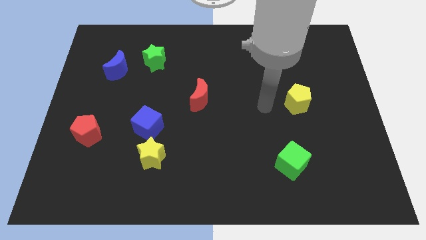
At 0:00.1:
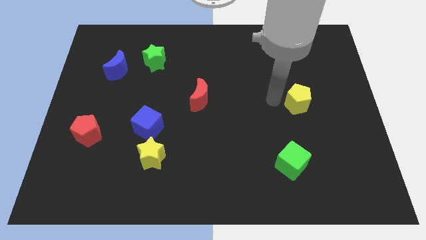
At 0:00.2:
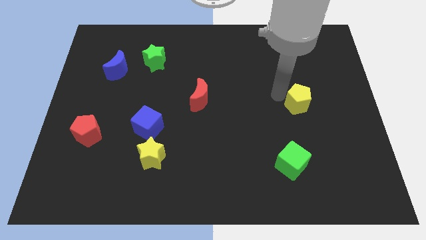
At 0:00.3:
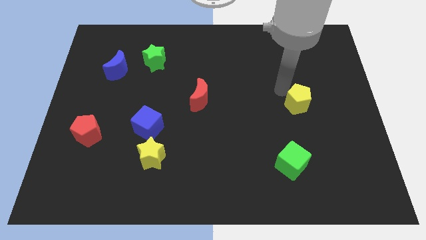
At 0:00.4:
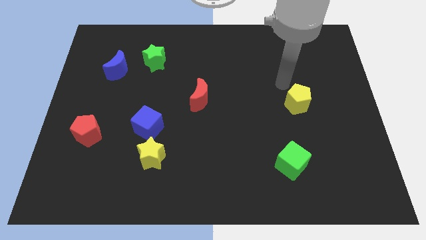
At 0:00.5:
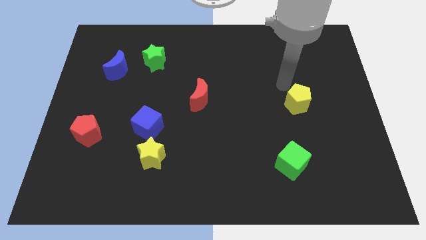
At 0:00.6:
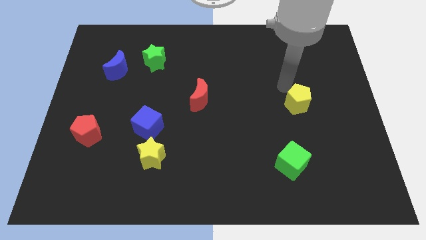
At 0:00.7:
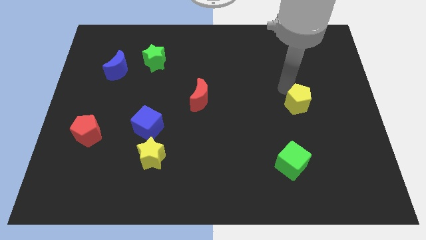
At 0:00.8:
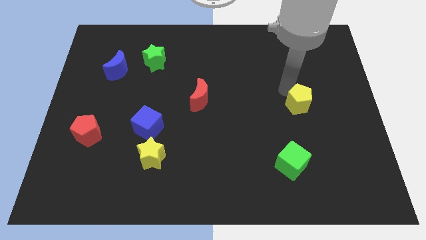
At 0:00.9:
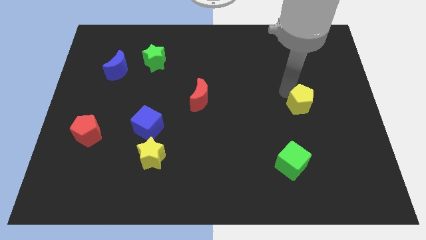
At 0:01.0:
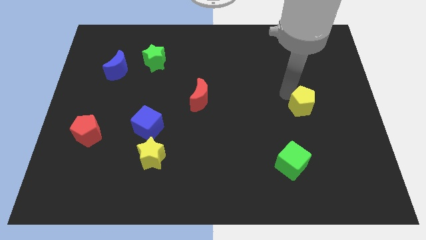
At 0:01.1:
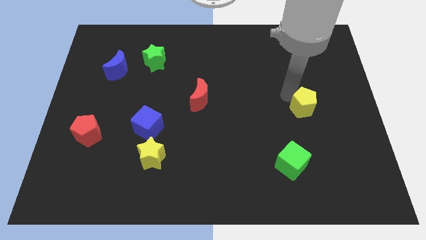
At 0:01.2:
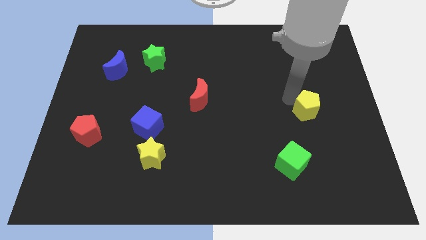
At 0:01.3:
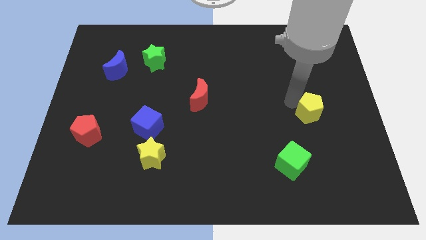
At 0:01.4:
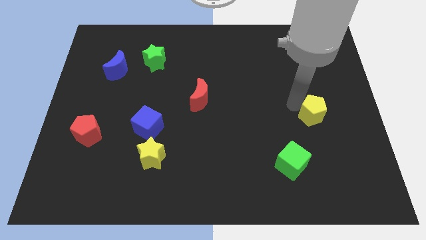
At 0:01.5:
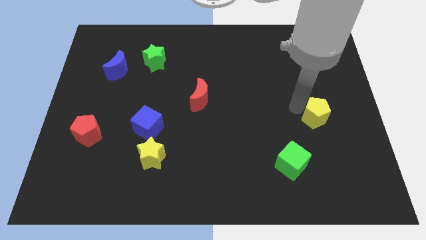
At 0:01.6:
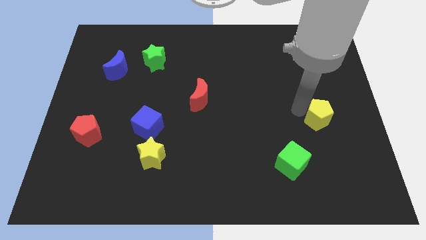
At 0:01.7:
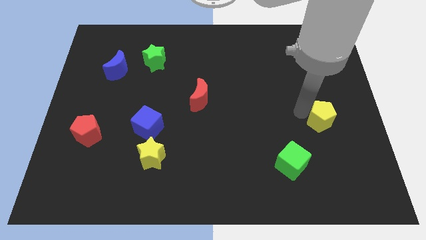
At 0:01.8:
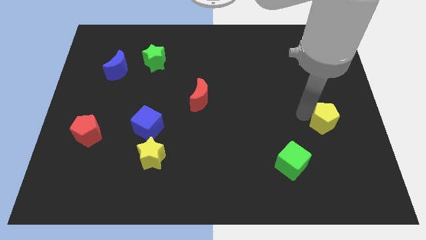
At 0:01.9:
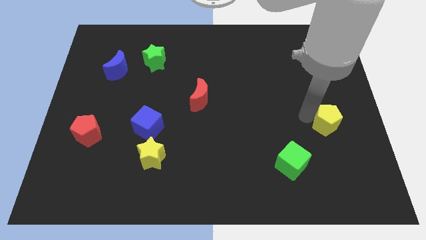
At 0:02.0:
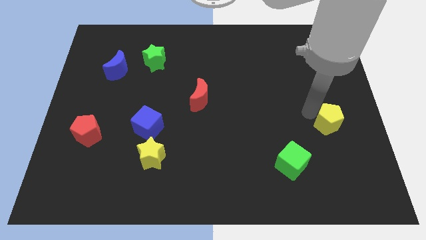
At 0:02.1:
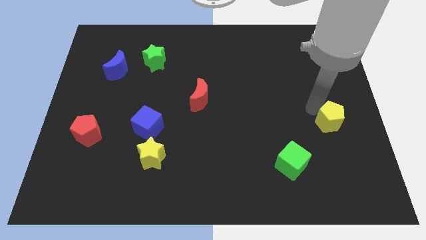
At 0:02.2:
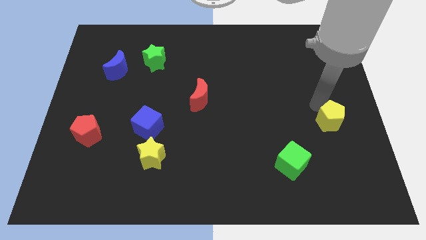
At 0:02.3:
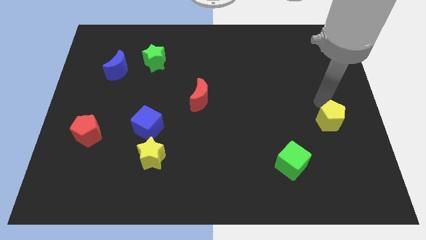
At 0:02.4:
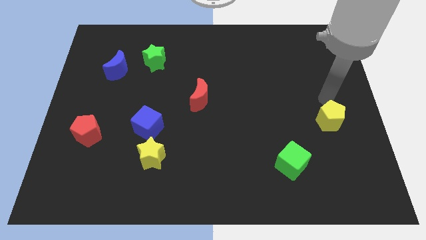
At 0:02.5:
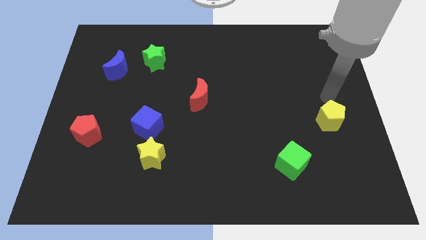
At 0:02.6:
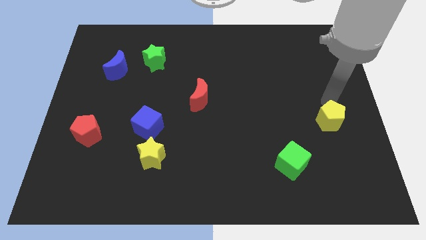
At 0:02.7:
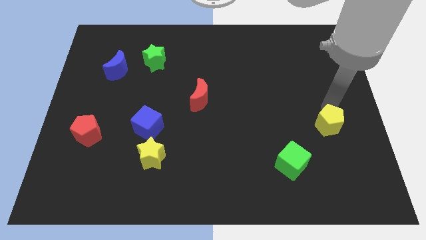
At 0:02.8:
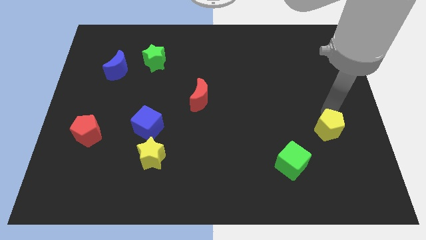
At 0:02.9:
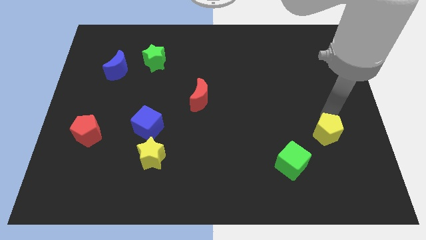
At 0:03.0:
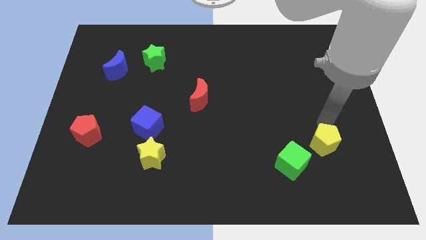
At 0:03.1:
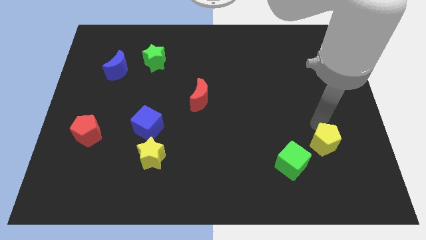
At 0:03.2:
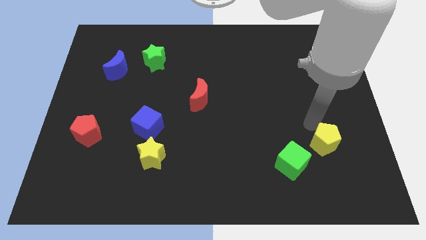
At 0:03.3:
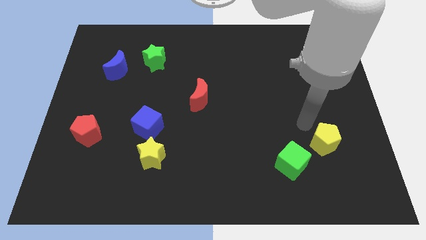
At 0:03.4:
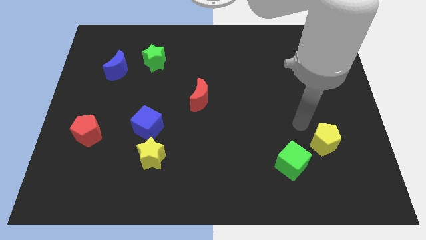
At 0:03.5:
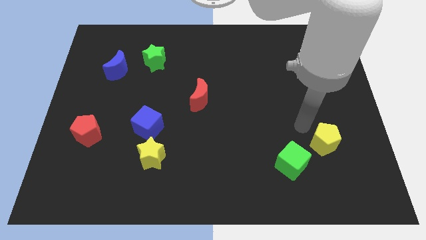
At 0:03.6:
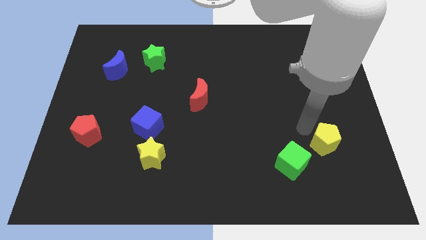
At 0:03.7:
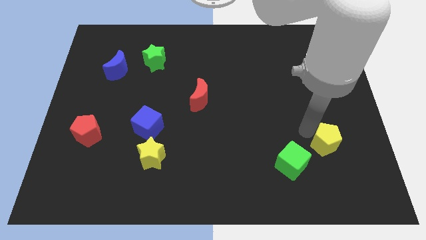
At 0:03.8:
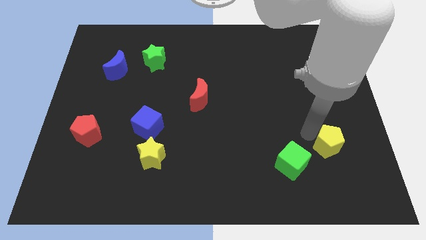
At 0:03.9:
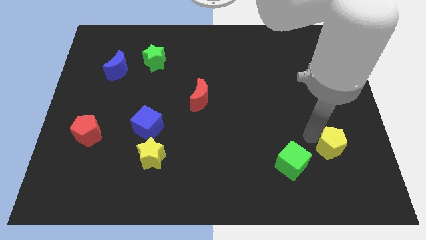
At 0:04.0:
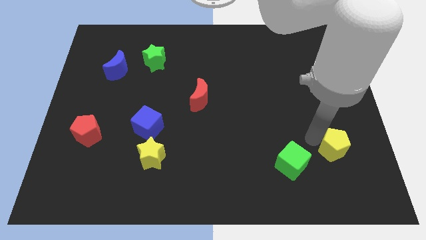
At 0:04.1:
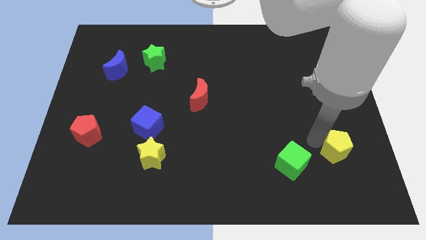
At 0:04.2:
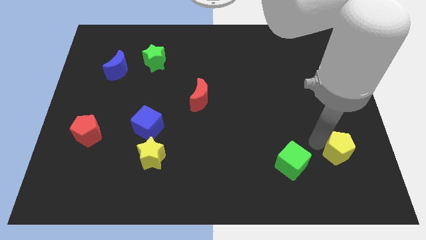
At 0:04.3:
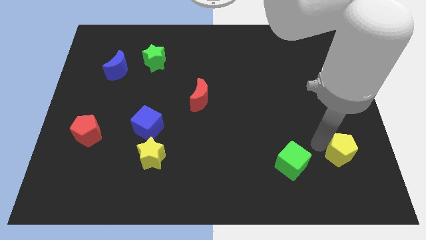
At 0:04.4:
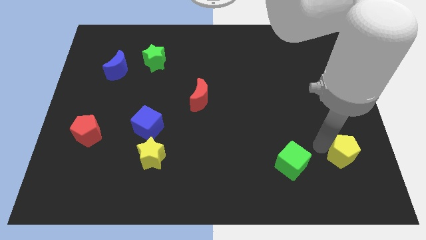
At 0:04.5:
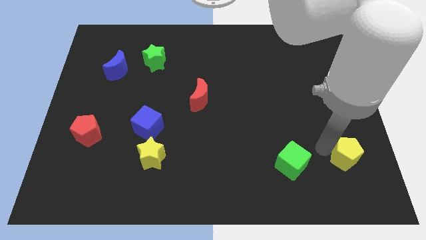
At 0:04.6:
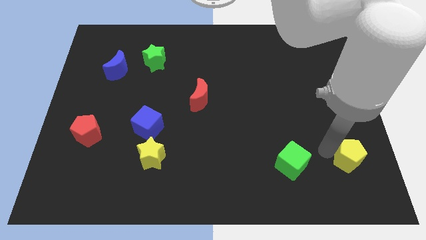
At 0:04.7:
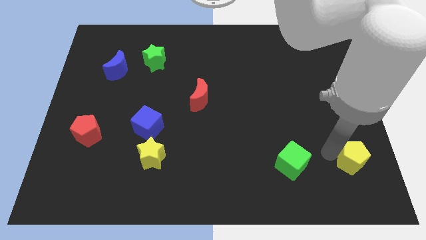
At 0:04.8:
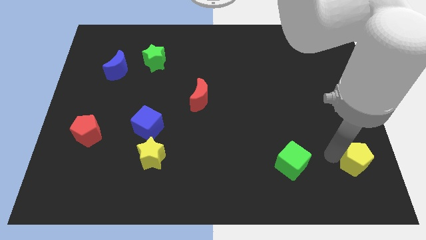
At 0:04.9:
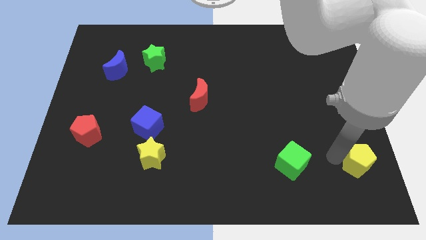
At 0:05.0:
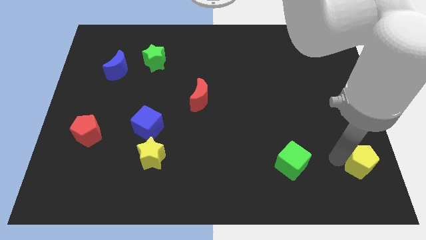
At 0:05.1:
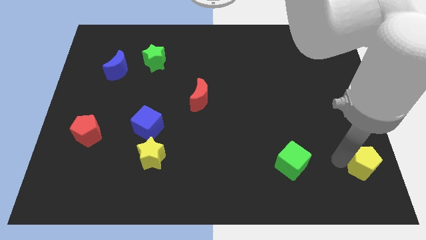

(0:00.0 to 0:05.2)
put the yellow pentagon to the bottom right of the board

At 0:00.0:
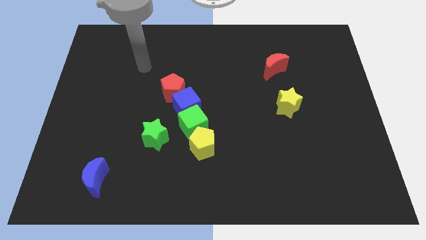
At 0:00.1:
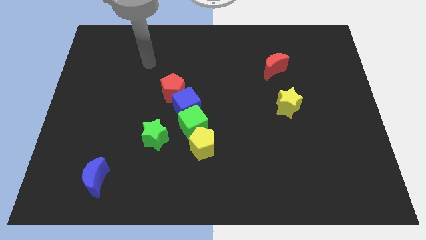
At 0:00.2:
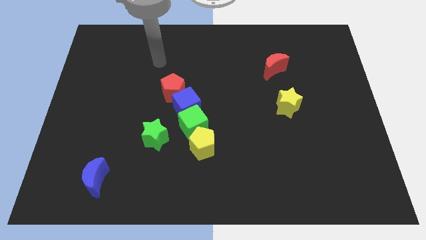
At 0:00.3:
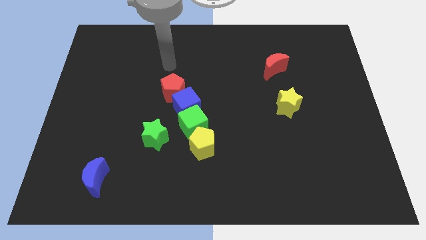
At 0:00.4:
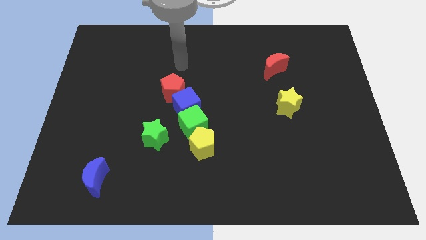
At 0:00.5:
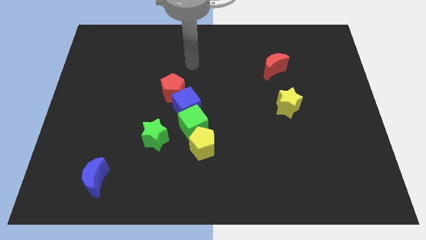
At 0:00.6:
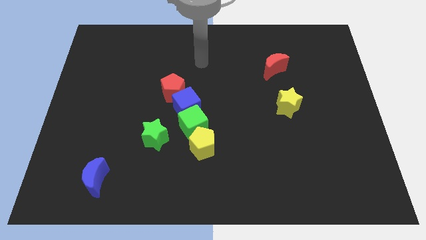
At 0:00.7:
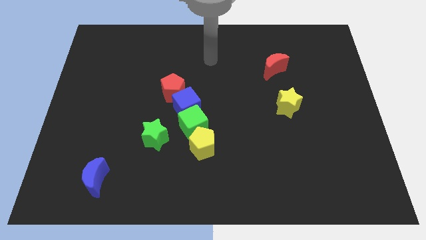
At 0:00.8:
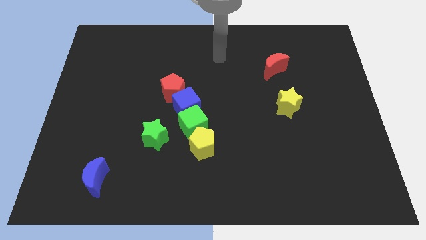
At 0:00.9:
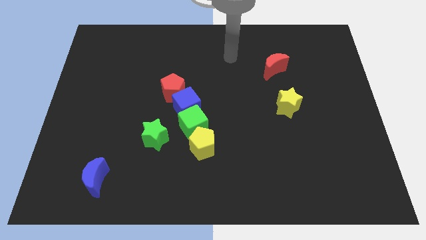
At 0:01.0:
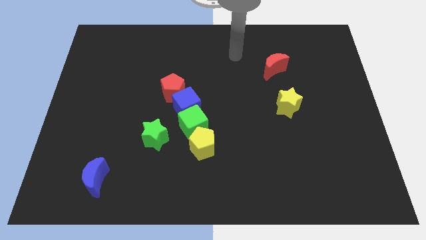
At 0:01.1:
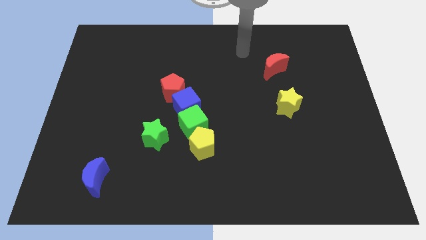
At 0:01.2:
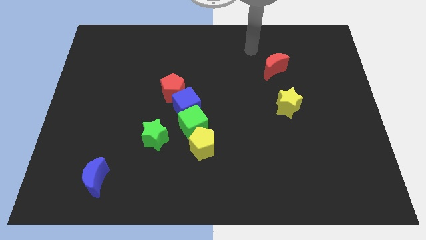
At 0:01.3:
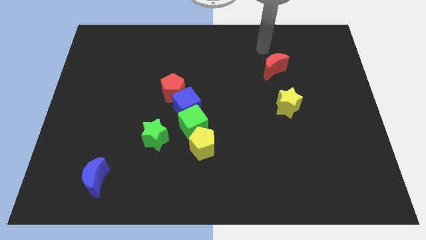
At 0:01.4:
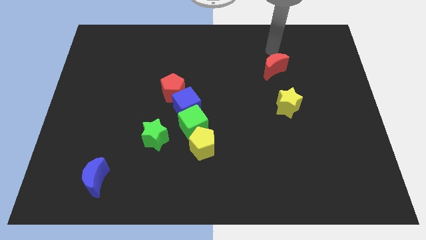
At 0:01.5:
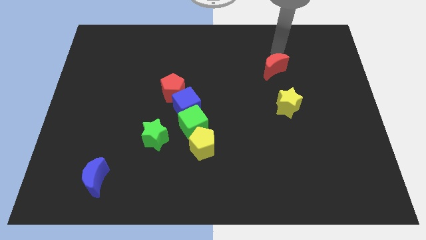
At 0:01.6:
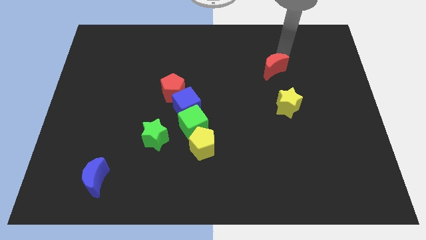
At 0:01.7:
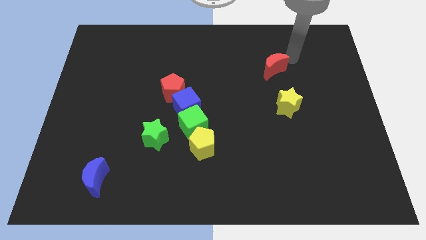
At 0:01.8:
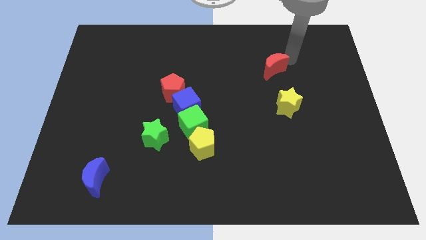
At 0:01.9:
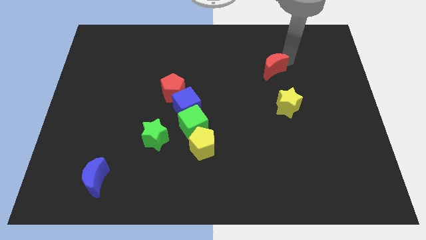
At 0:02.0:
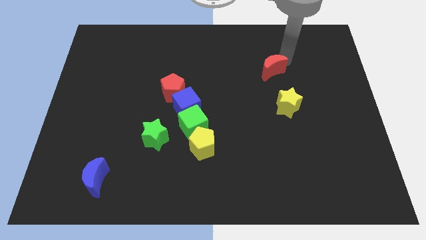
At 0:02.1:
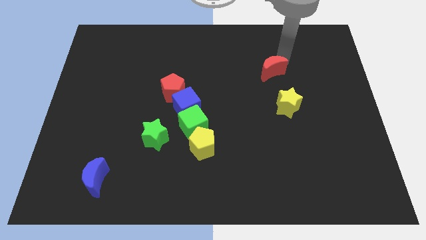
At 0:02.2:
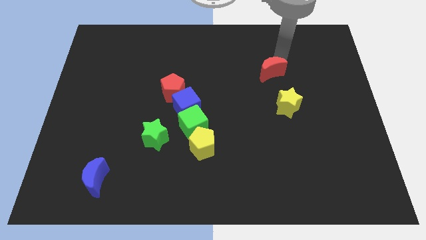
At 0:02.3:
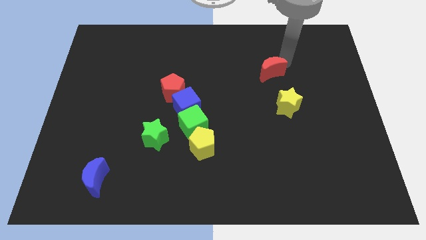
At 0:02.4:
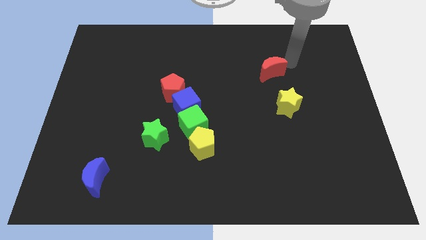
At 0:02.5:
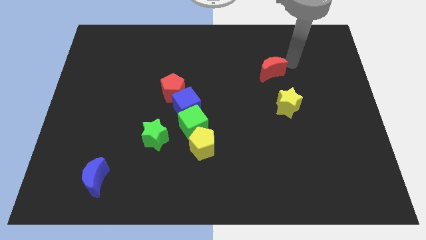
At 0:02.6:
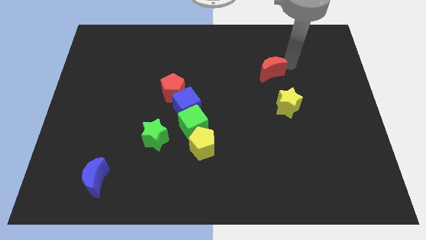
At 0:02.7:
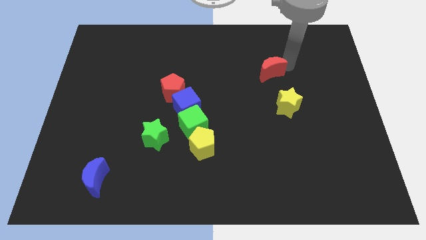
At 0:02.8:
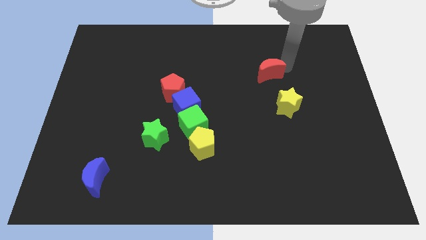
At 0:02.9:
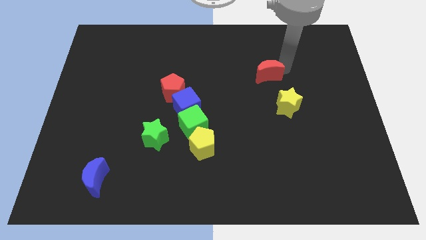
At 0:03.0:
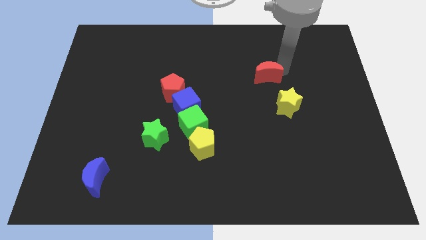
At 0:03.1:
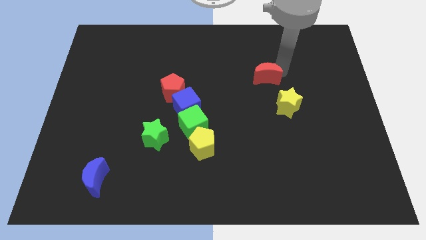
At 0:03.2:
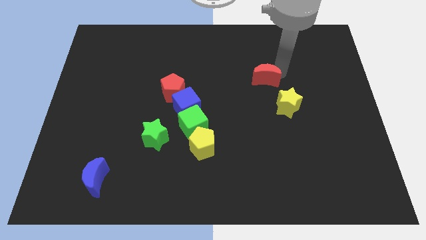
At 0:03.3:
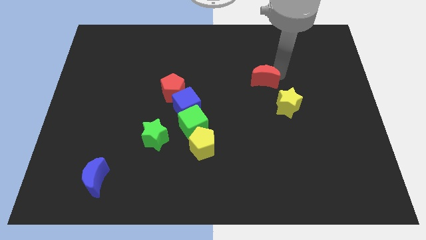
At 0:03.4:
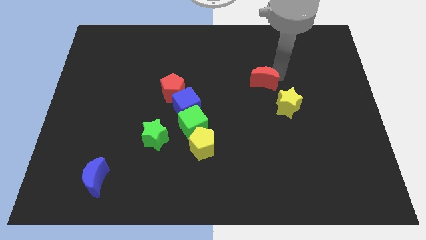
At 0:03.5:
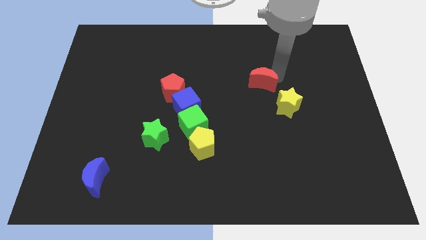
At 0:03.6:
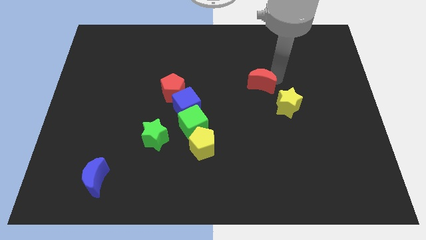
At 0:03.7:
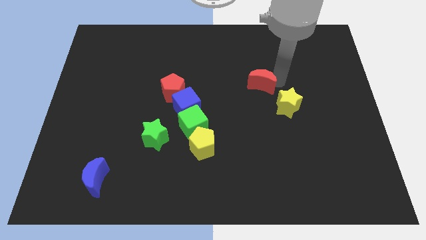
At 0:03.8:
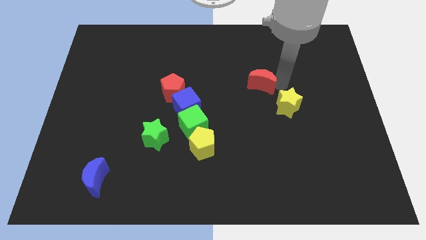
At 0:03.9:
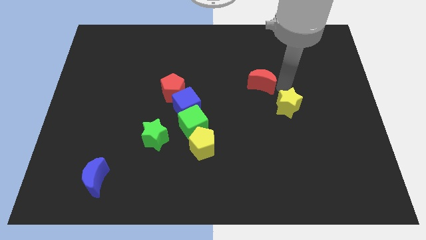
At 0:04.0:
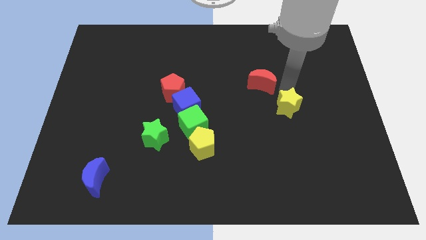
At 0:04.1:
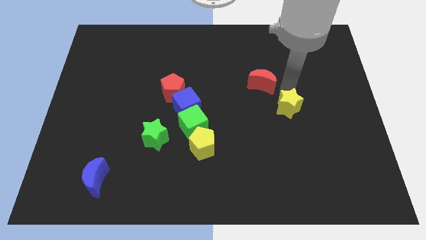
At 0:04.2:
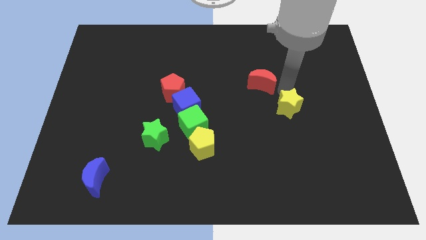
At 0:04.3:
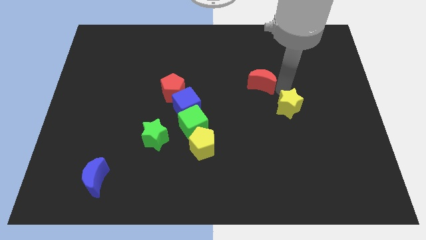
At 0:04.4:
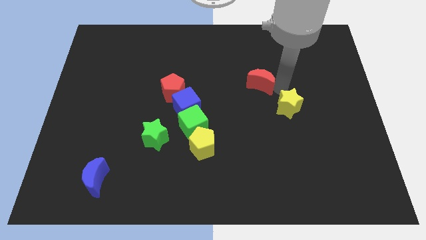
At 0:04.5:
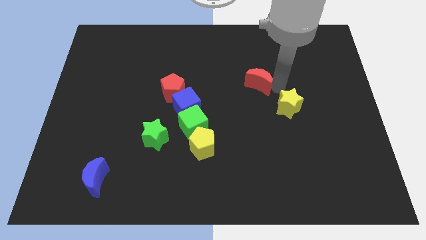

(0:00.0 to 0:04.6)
put the red moon to the middle of the board
